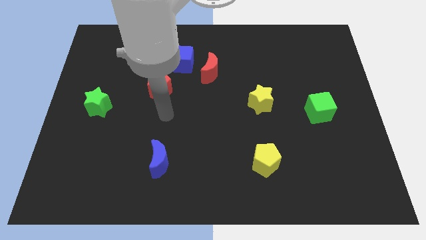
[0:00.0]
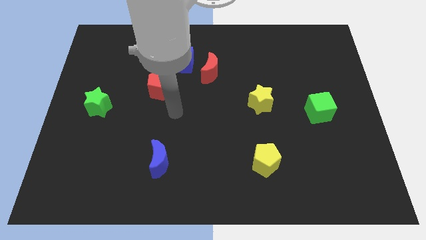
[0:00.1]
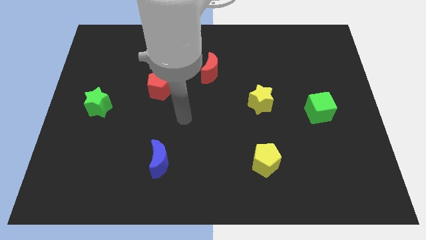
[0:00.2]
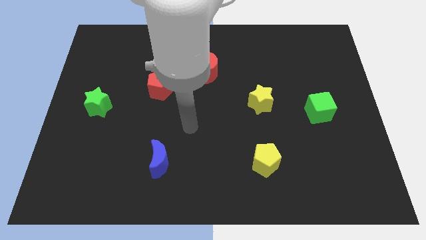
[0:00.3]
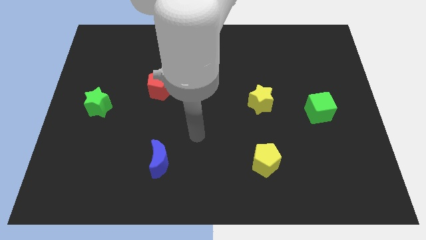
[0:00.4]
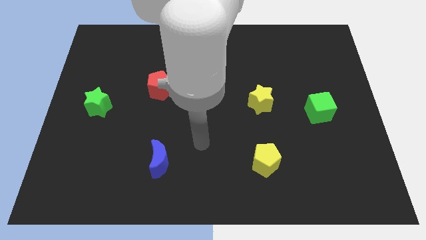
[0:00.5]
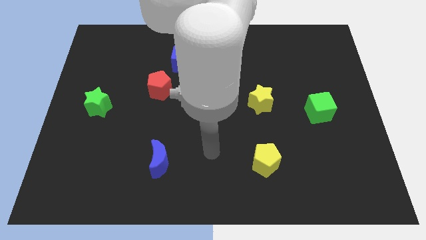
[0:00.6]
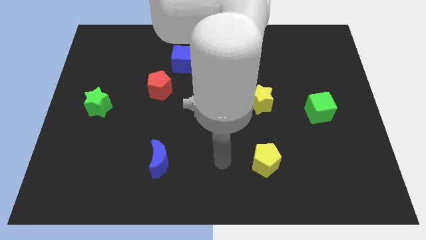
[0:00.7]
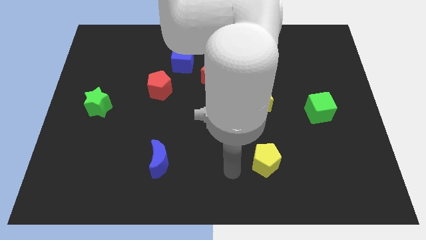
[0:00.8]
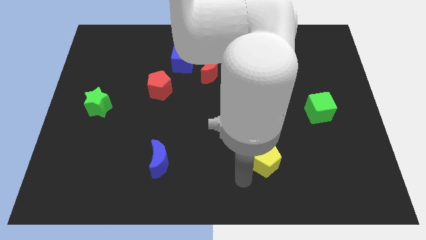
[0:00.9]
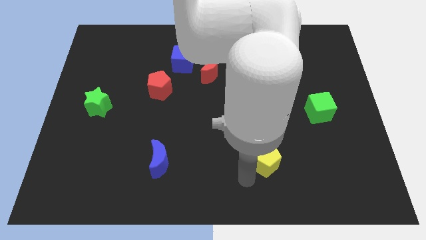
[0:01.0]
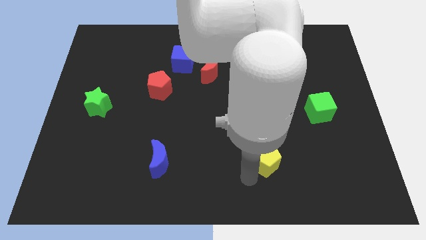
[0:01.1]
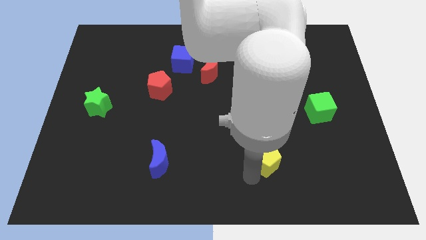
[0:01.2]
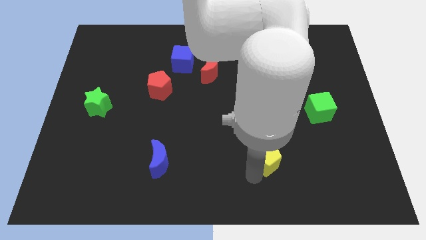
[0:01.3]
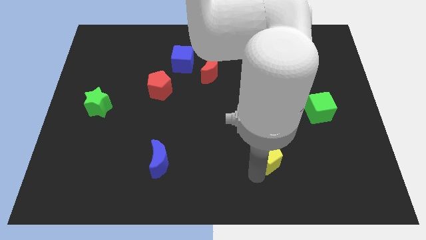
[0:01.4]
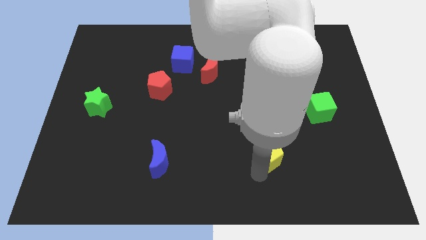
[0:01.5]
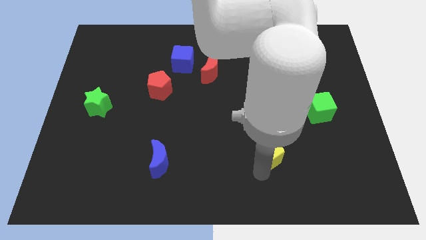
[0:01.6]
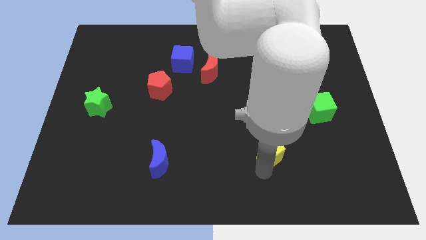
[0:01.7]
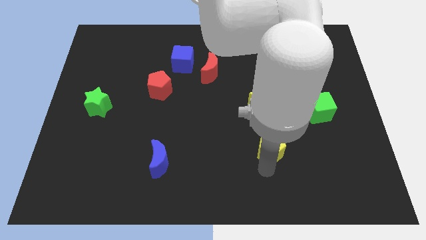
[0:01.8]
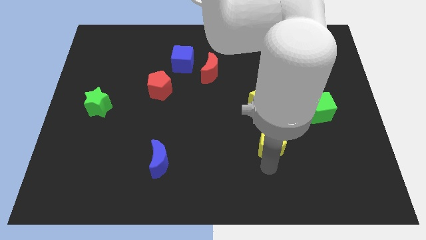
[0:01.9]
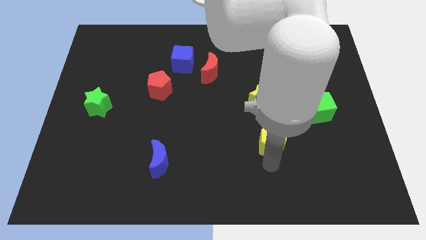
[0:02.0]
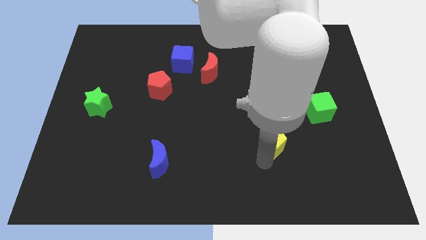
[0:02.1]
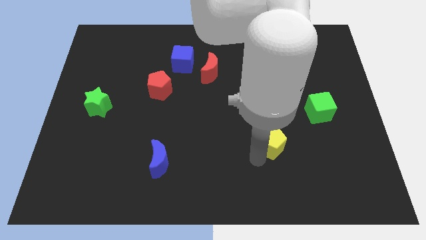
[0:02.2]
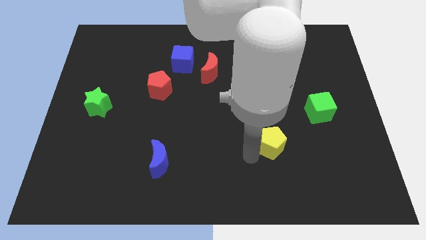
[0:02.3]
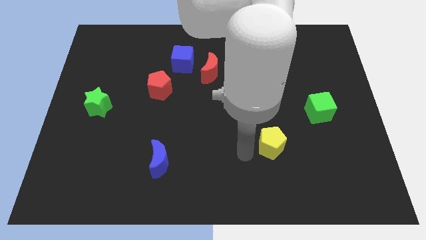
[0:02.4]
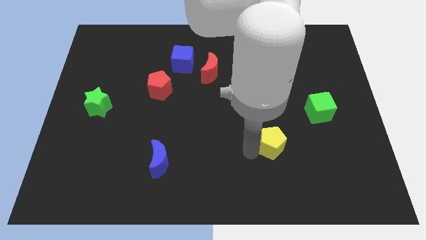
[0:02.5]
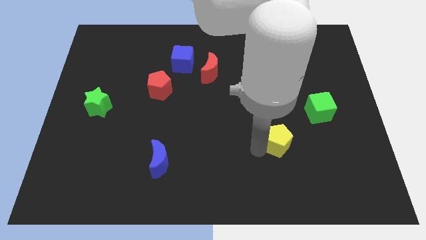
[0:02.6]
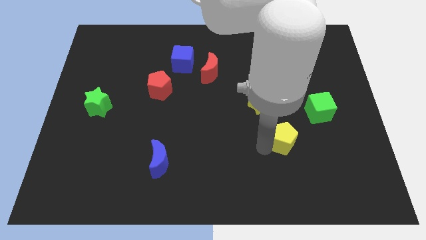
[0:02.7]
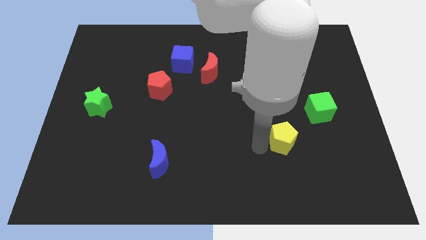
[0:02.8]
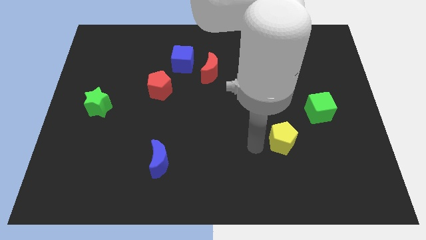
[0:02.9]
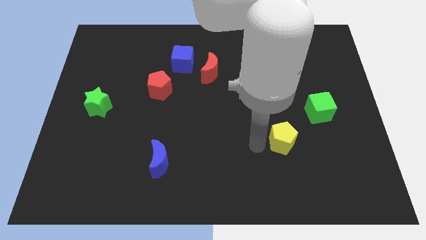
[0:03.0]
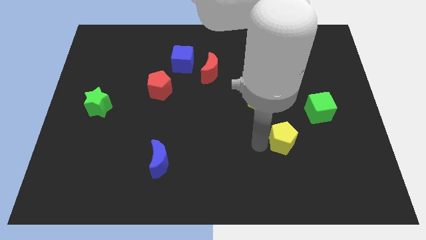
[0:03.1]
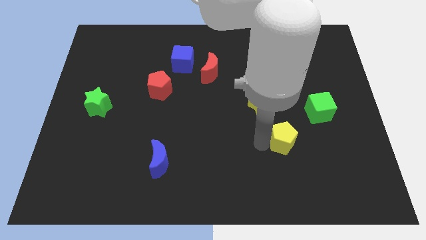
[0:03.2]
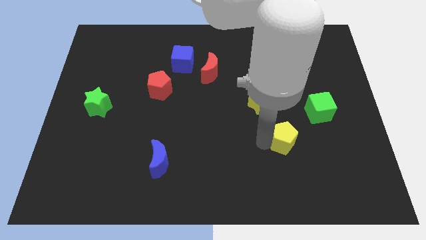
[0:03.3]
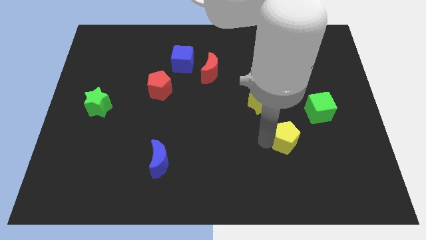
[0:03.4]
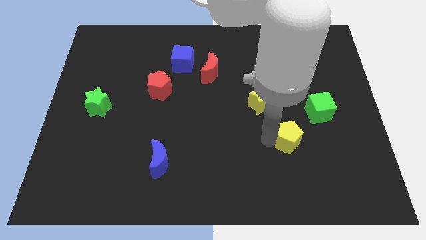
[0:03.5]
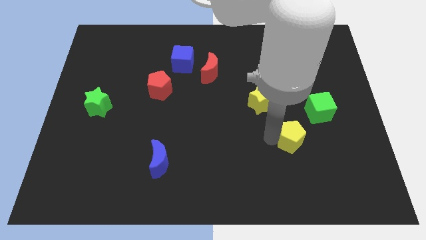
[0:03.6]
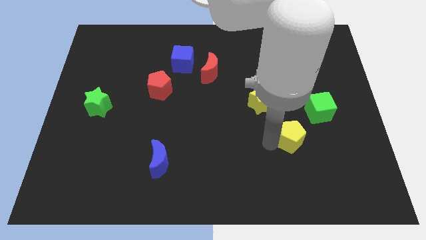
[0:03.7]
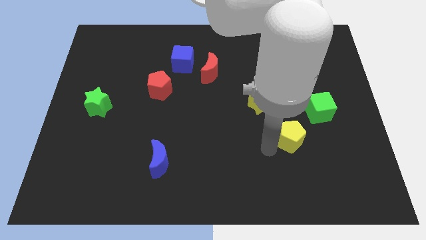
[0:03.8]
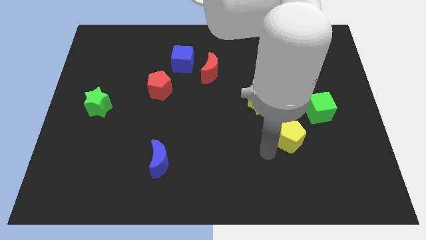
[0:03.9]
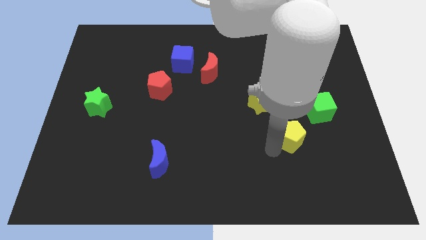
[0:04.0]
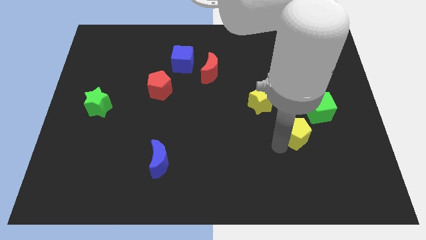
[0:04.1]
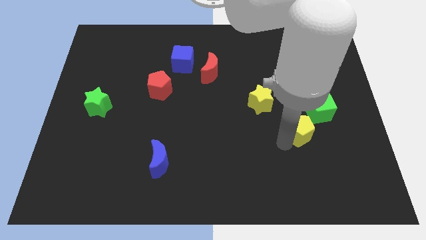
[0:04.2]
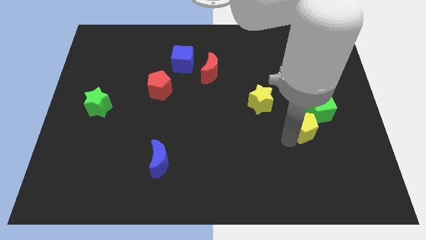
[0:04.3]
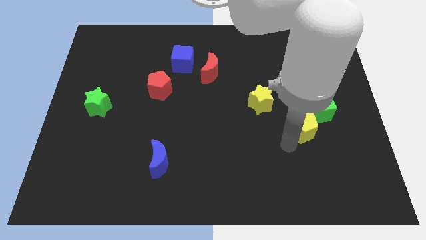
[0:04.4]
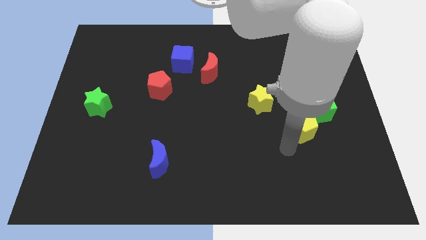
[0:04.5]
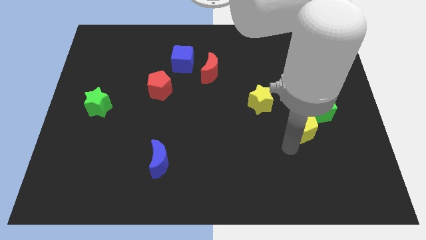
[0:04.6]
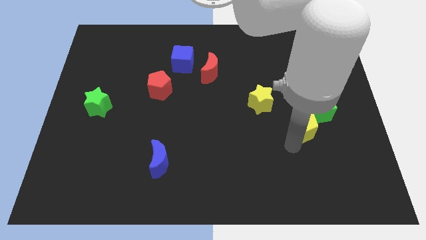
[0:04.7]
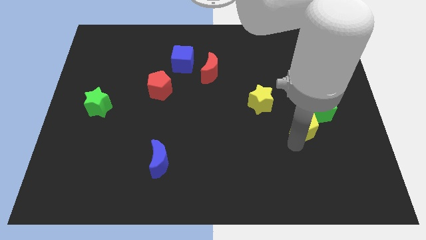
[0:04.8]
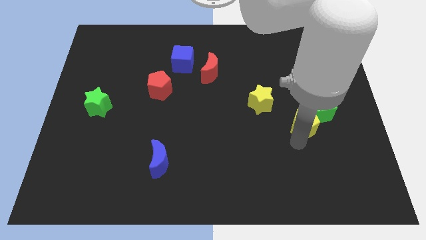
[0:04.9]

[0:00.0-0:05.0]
slide the yellow pentagon towards the green cube

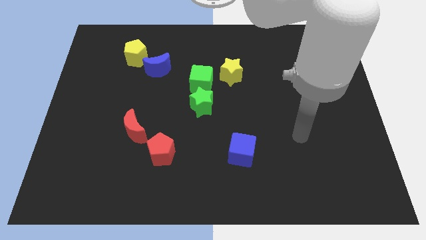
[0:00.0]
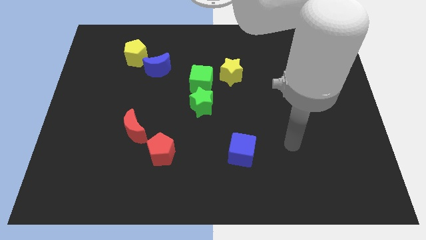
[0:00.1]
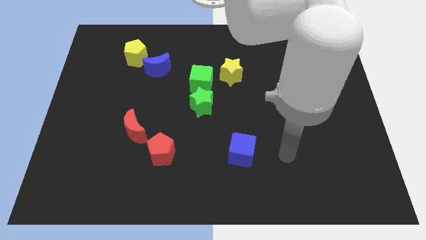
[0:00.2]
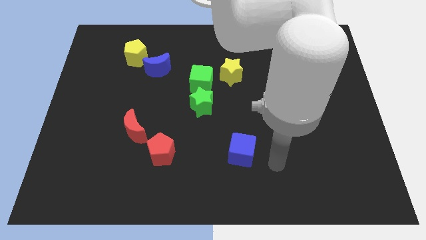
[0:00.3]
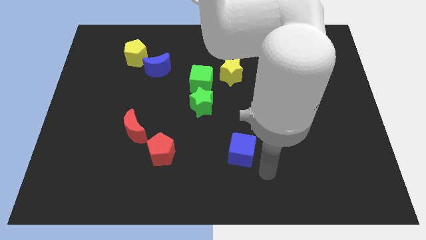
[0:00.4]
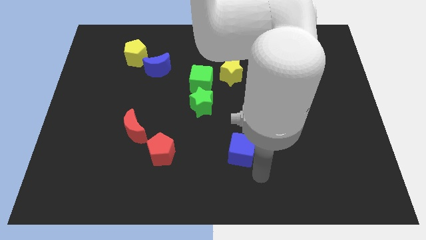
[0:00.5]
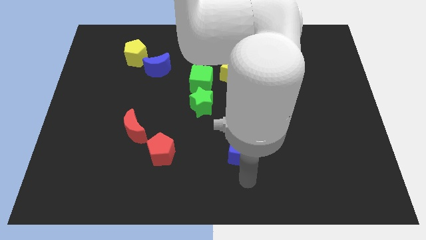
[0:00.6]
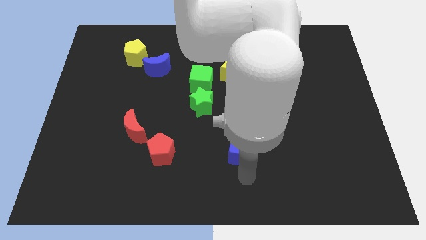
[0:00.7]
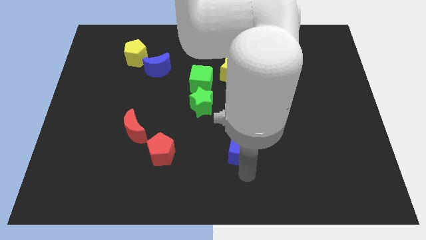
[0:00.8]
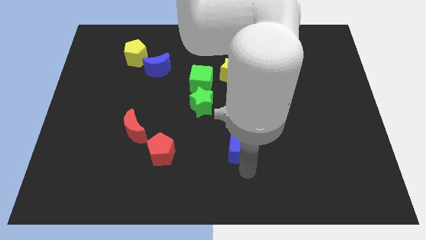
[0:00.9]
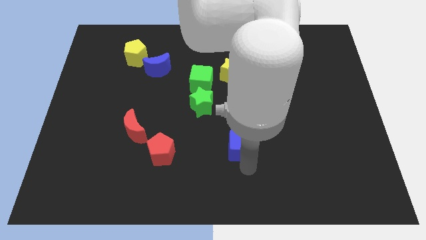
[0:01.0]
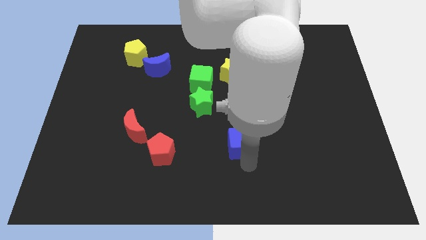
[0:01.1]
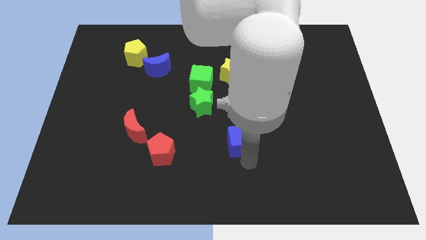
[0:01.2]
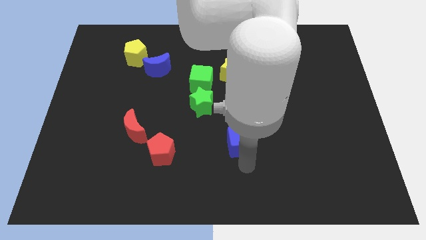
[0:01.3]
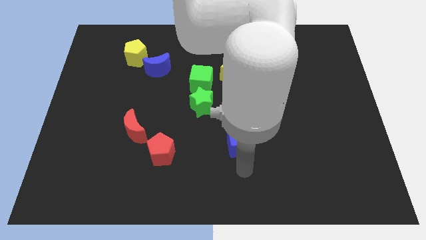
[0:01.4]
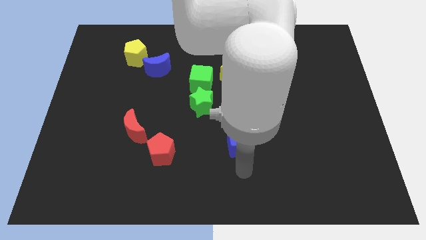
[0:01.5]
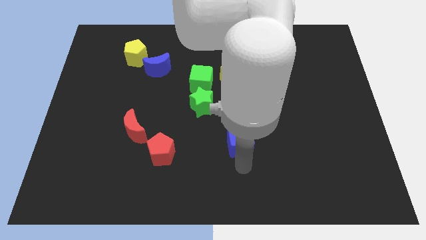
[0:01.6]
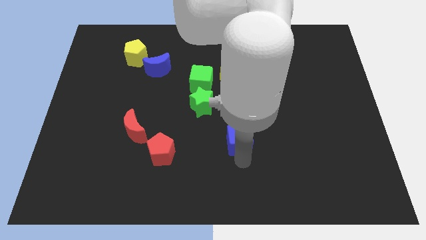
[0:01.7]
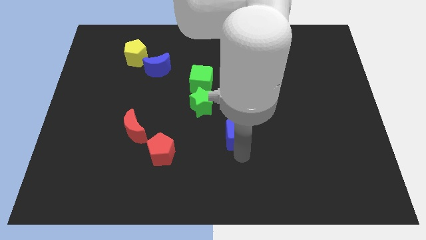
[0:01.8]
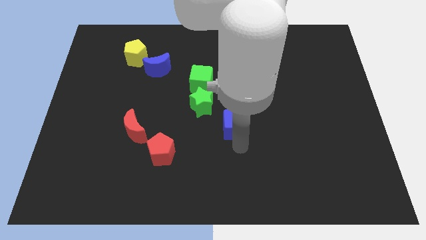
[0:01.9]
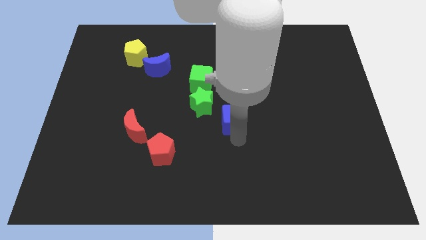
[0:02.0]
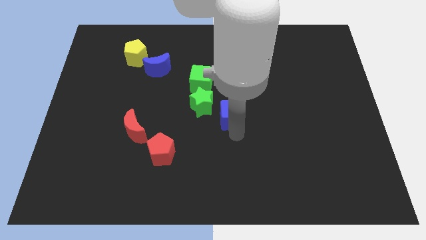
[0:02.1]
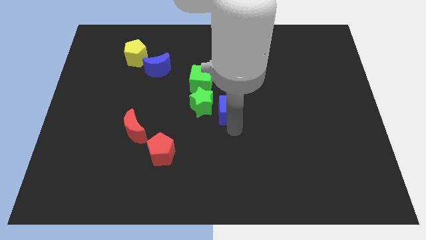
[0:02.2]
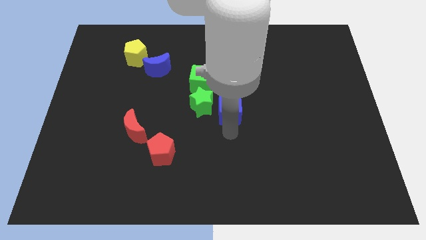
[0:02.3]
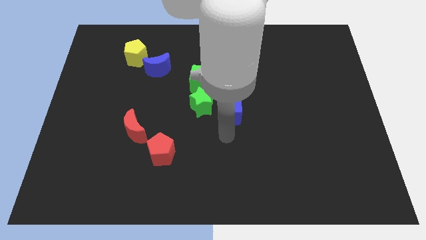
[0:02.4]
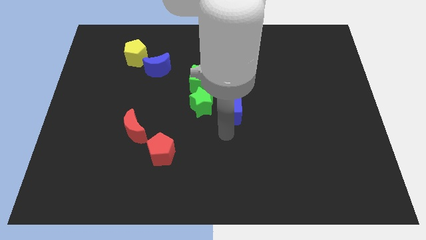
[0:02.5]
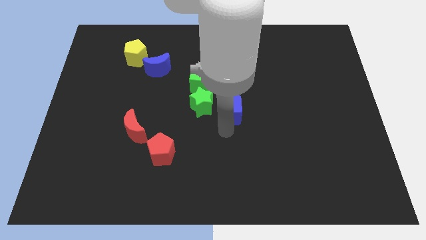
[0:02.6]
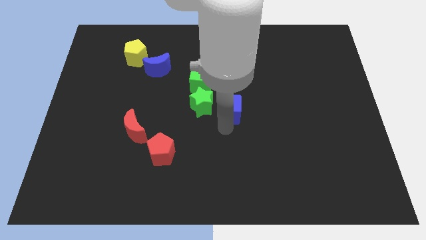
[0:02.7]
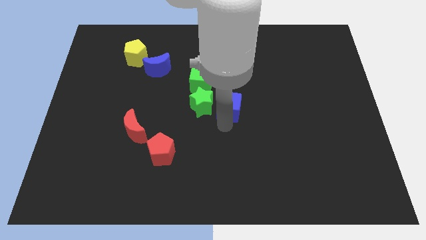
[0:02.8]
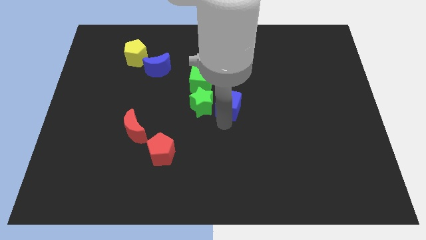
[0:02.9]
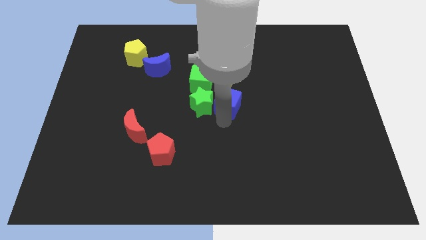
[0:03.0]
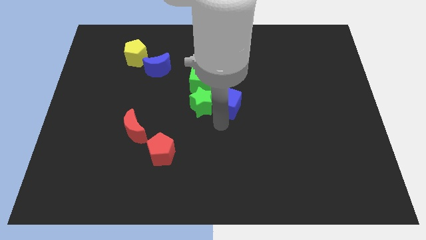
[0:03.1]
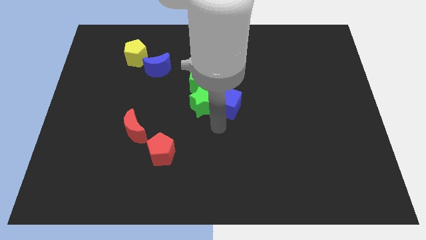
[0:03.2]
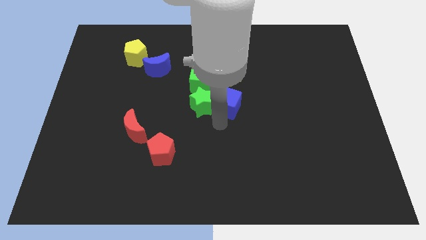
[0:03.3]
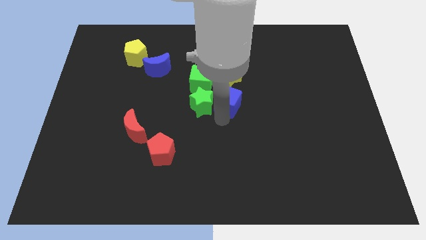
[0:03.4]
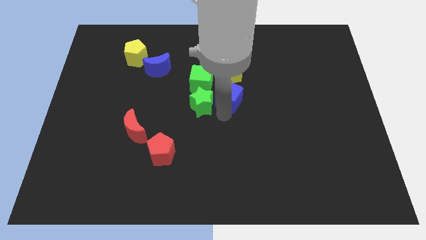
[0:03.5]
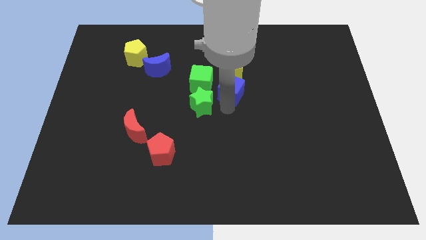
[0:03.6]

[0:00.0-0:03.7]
move the blue cube next to the yellow star

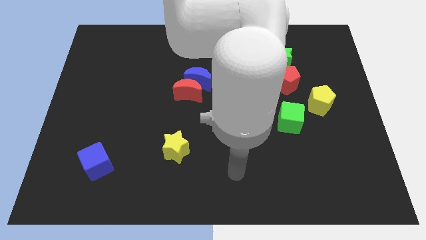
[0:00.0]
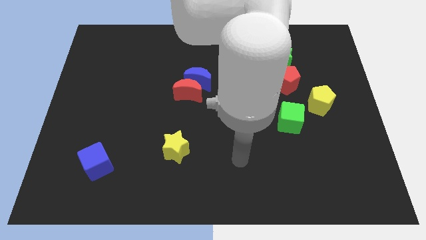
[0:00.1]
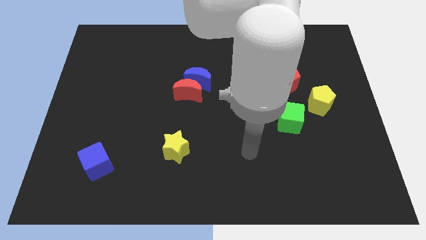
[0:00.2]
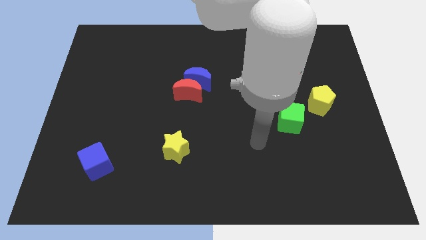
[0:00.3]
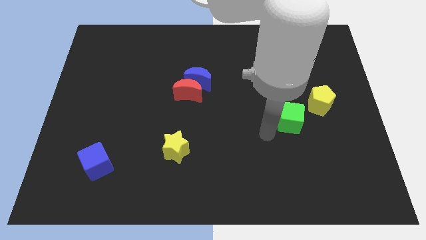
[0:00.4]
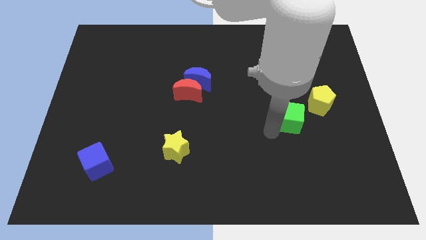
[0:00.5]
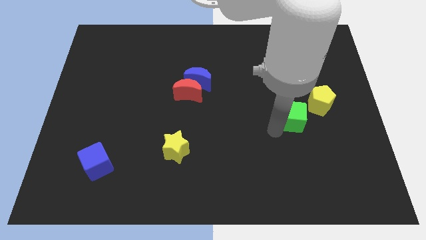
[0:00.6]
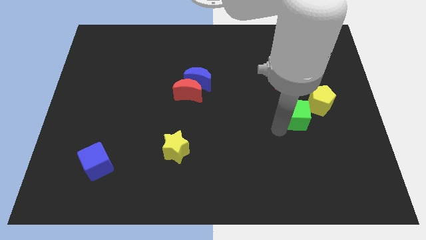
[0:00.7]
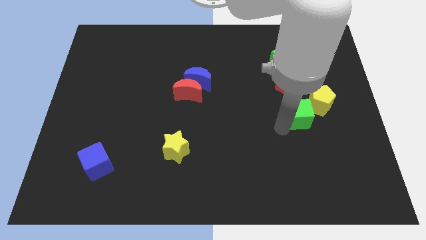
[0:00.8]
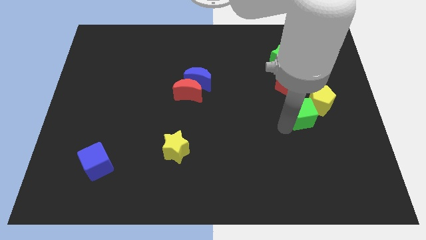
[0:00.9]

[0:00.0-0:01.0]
slide the green cube close to the yellow pentagon
